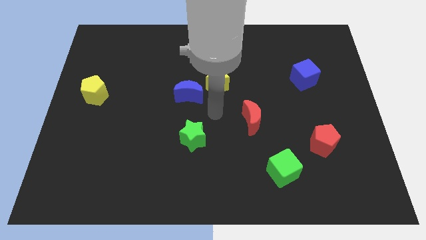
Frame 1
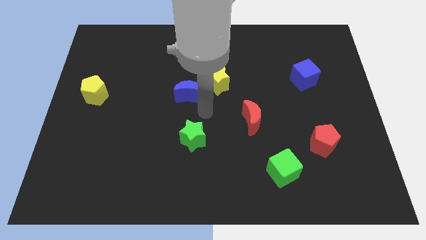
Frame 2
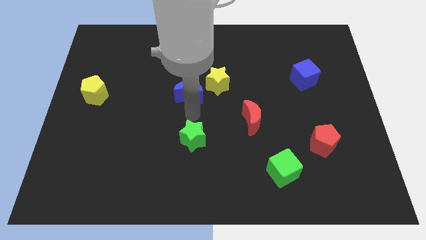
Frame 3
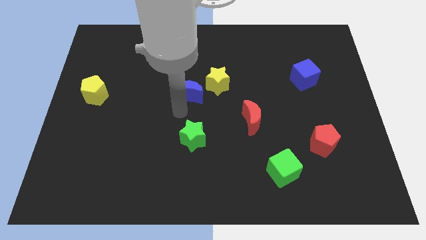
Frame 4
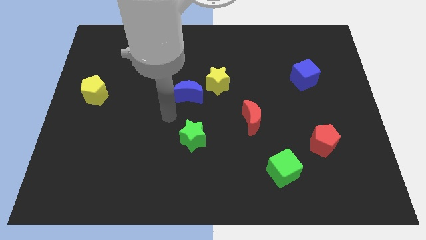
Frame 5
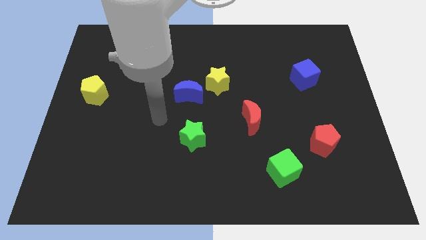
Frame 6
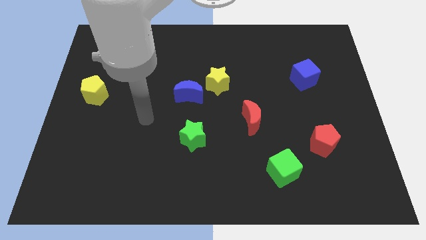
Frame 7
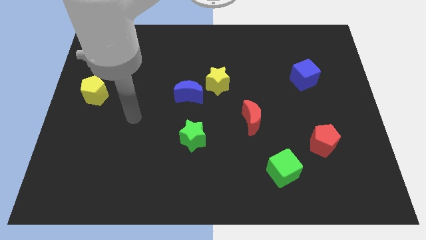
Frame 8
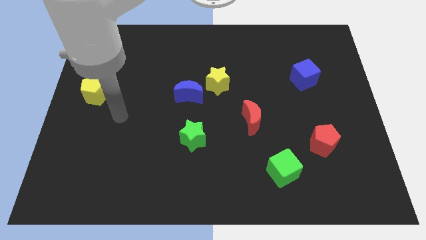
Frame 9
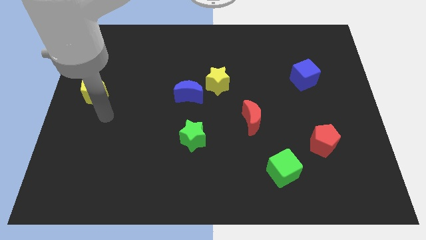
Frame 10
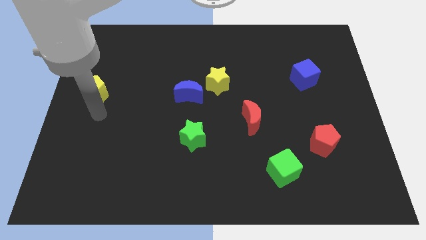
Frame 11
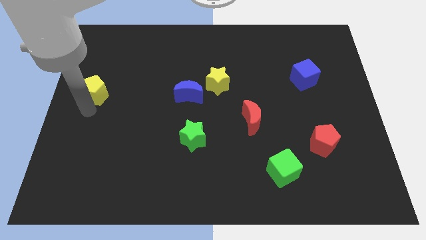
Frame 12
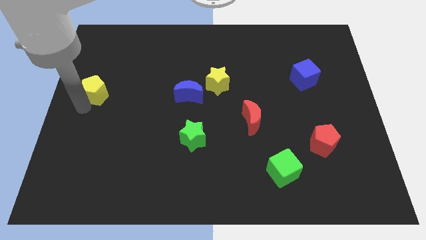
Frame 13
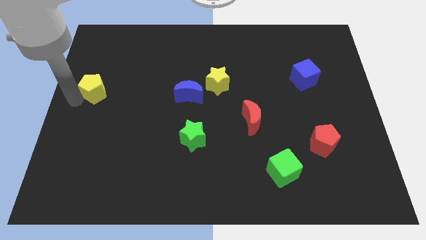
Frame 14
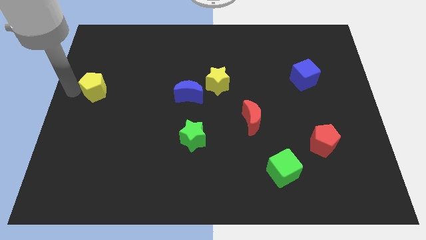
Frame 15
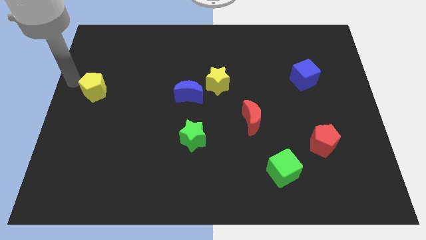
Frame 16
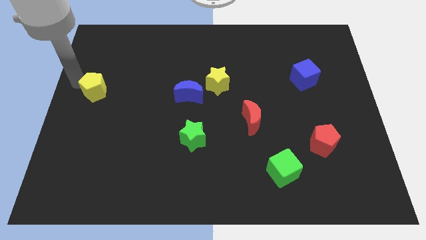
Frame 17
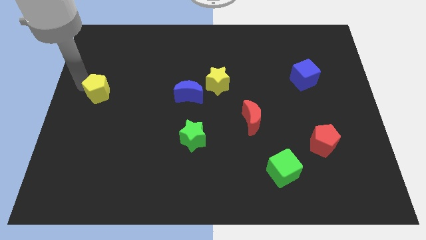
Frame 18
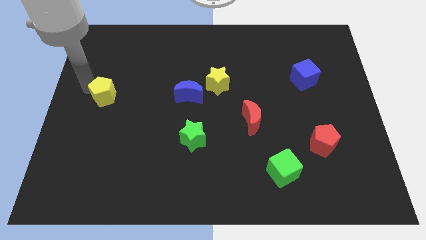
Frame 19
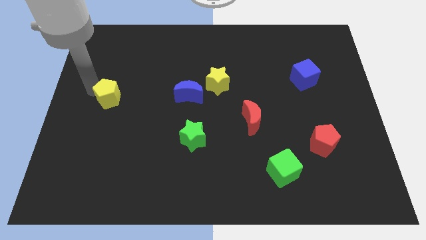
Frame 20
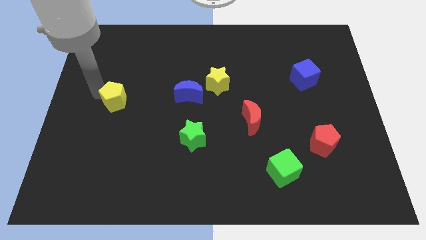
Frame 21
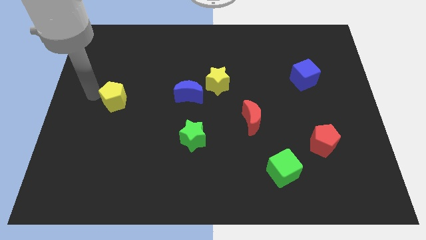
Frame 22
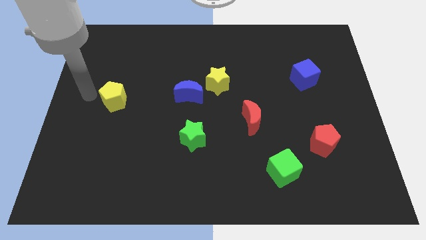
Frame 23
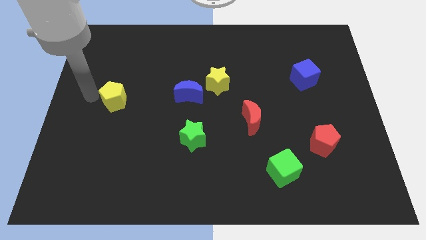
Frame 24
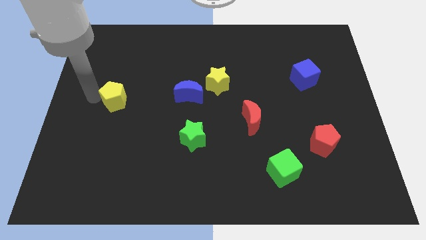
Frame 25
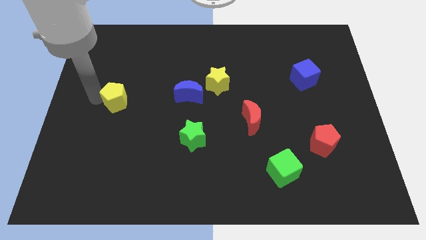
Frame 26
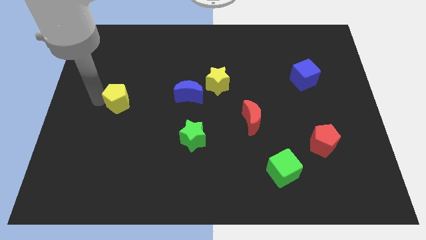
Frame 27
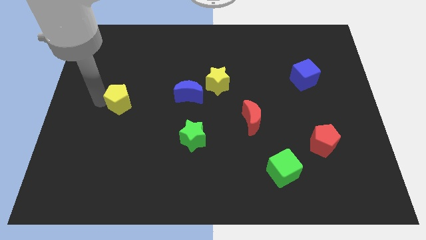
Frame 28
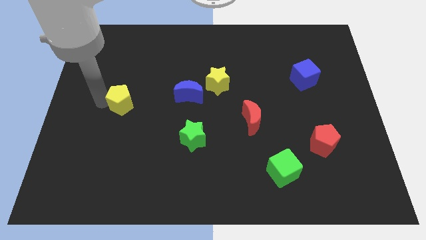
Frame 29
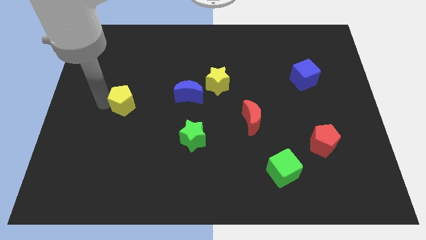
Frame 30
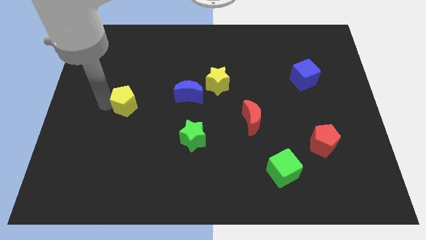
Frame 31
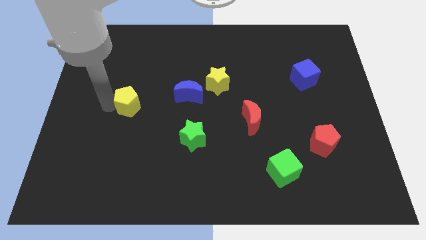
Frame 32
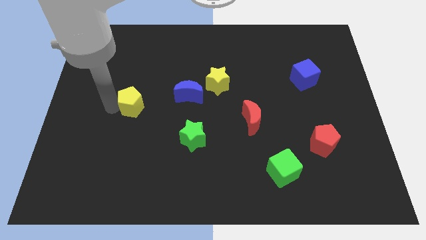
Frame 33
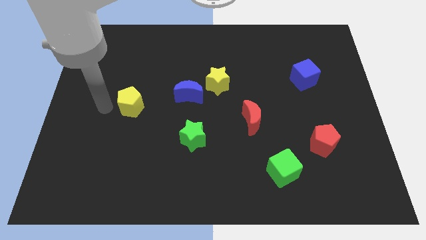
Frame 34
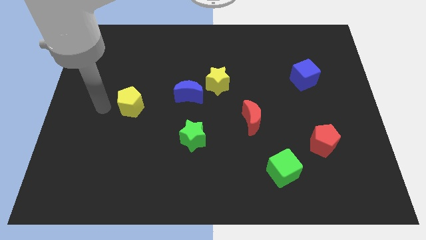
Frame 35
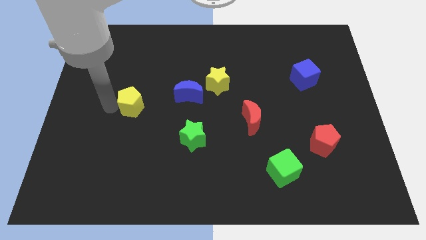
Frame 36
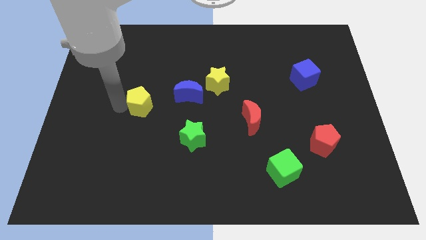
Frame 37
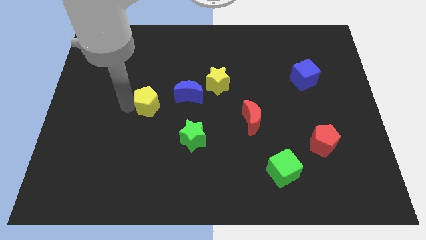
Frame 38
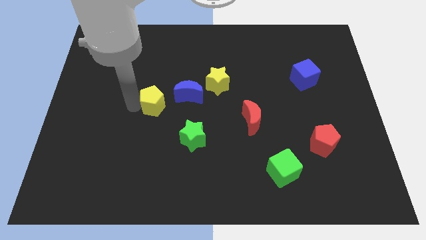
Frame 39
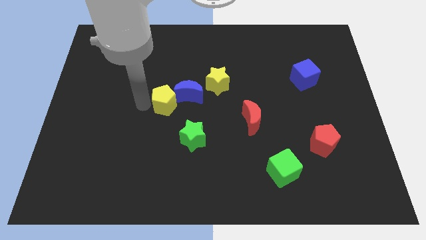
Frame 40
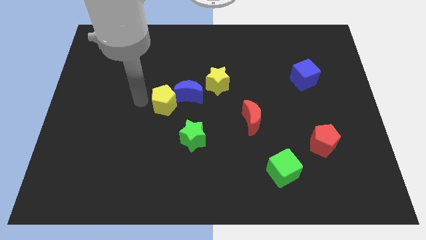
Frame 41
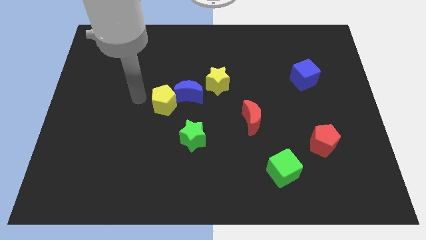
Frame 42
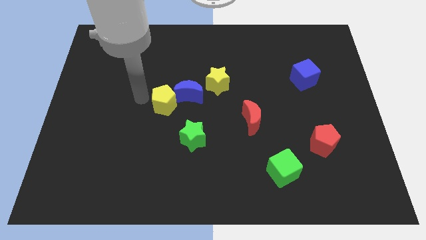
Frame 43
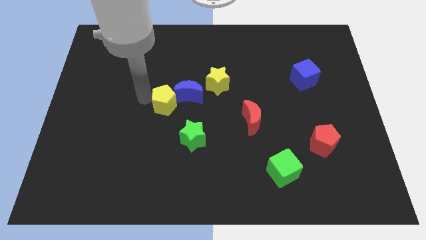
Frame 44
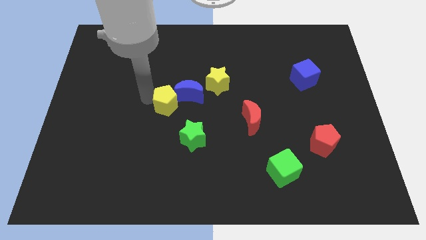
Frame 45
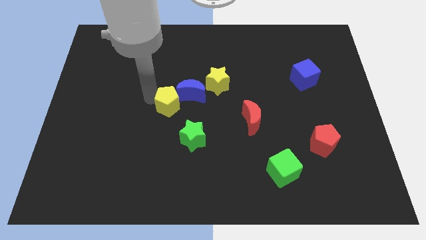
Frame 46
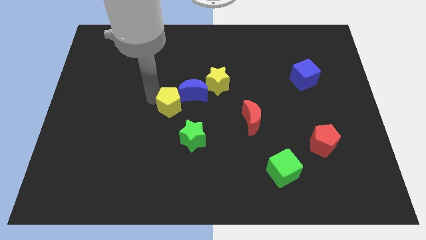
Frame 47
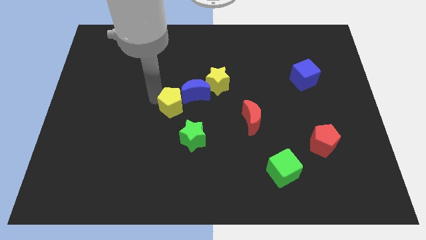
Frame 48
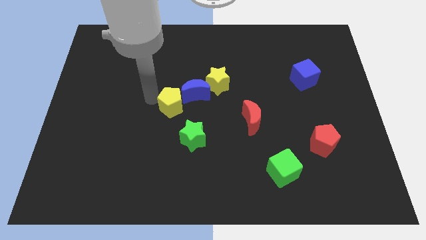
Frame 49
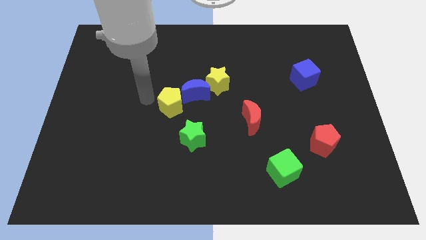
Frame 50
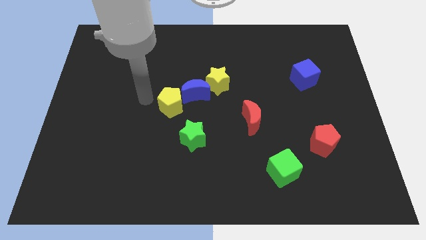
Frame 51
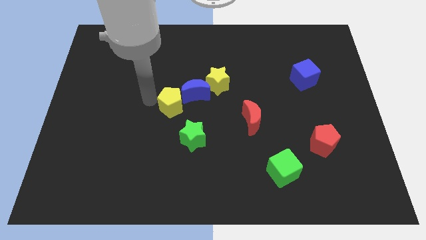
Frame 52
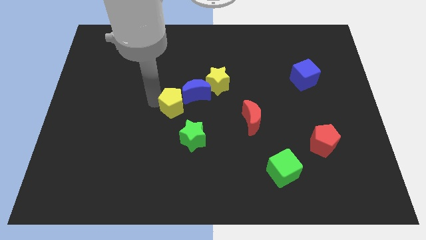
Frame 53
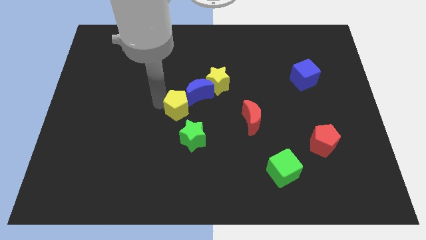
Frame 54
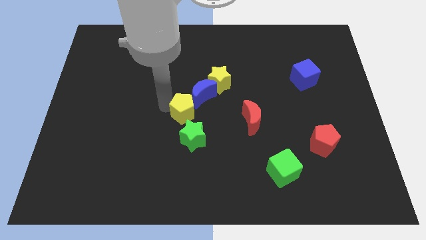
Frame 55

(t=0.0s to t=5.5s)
slide the yellow pentagon right

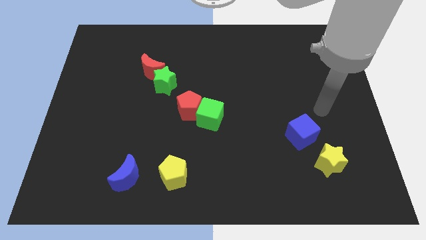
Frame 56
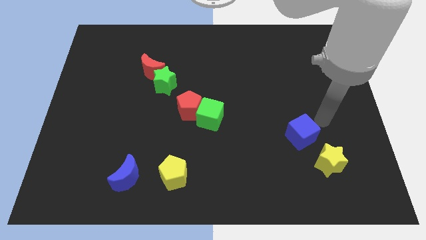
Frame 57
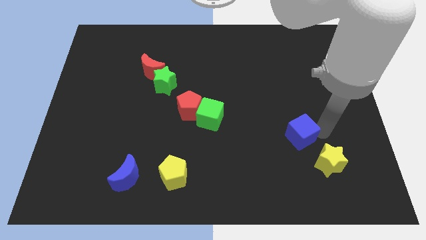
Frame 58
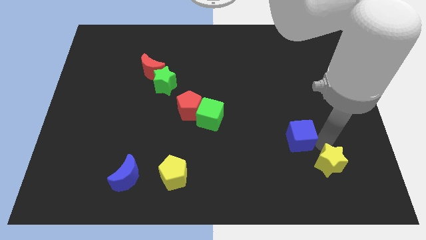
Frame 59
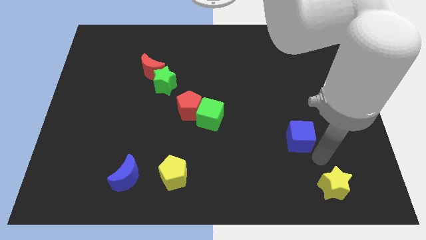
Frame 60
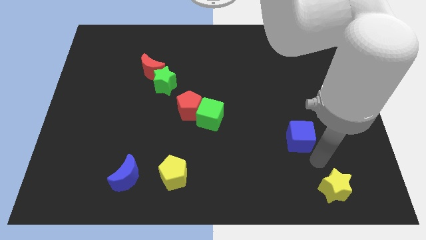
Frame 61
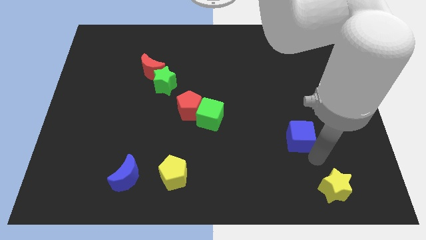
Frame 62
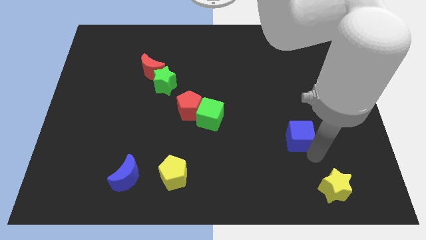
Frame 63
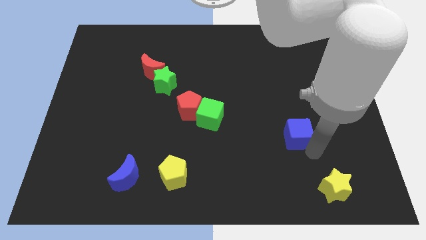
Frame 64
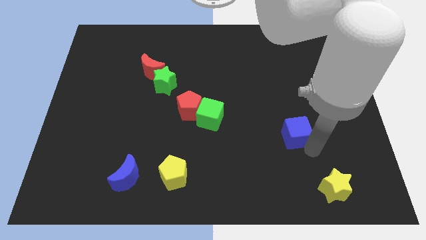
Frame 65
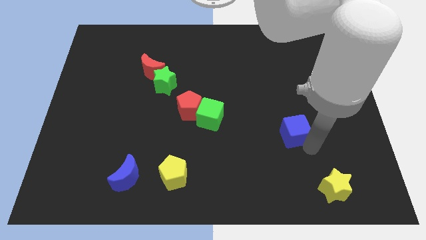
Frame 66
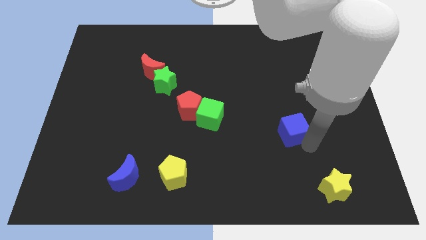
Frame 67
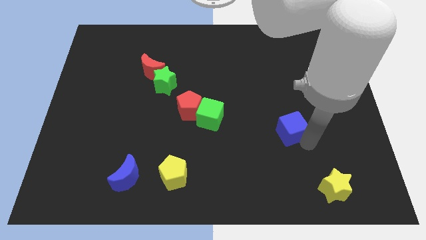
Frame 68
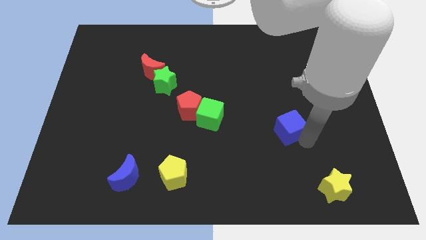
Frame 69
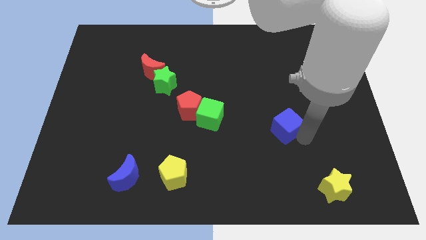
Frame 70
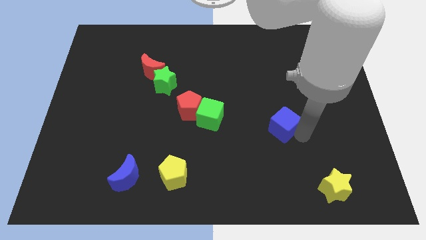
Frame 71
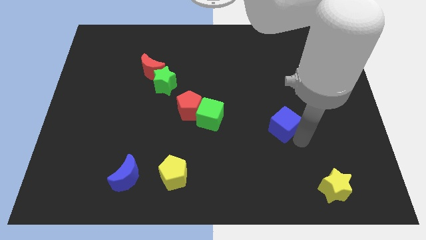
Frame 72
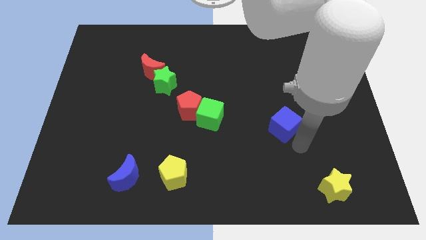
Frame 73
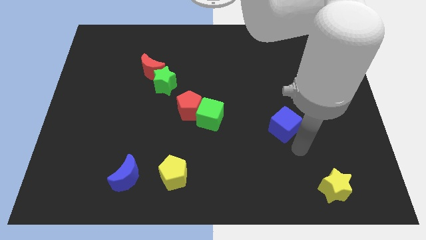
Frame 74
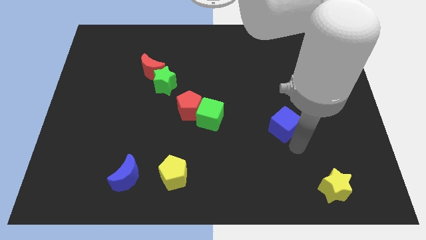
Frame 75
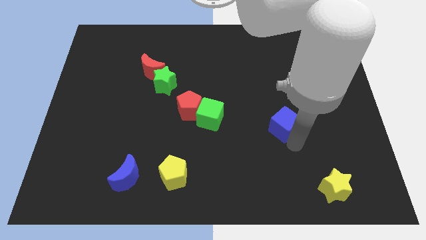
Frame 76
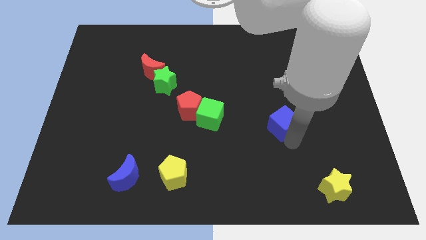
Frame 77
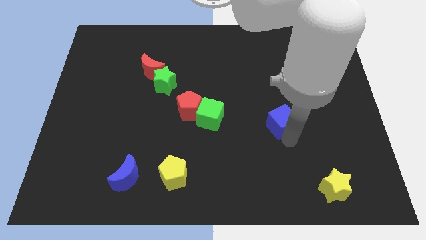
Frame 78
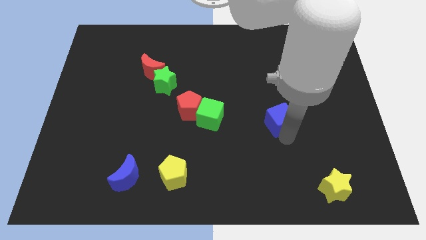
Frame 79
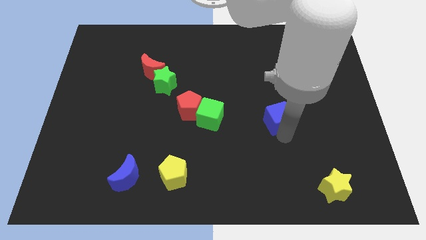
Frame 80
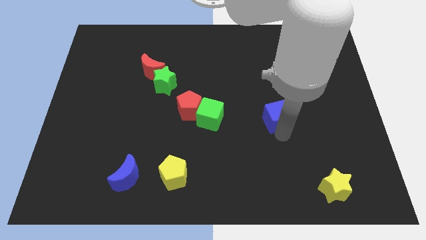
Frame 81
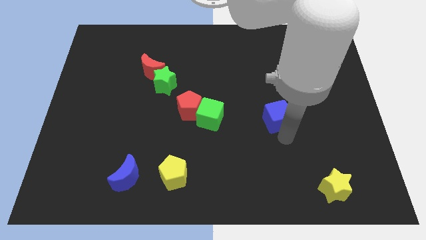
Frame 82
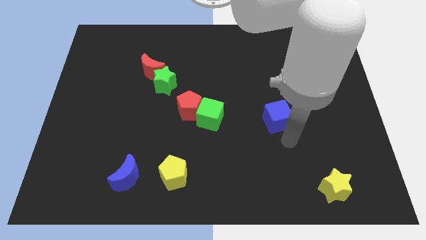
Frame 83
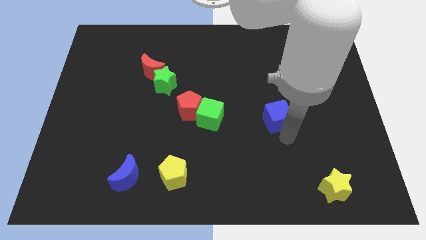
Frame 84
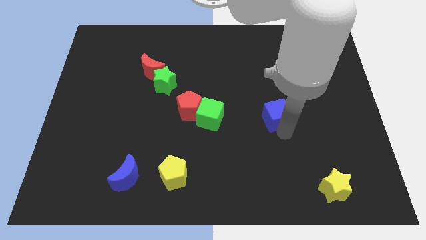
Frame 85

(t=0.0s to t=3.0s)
slide the blue cube up and left diagonally a little
